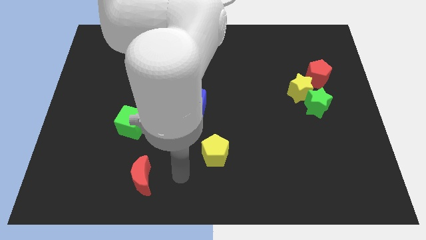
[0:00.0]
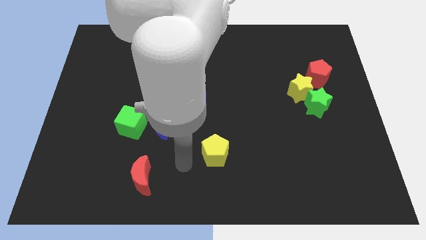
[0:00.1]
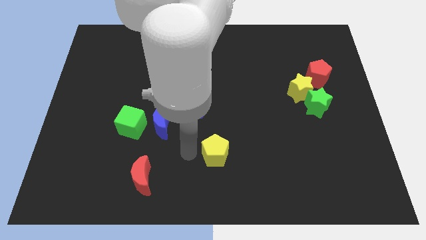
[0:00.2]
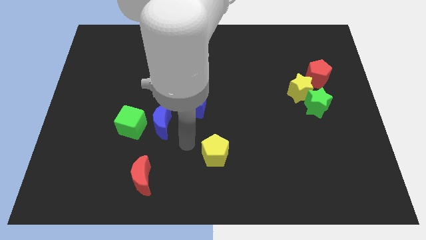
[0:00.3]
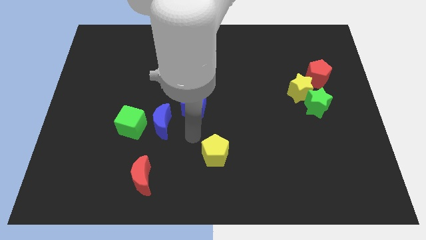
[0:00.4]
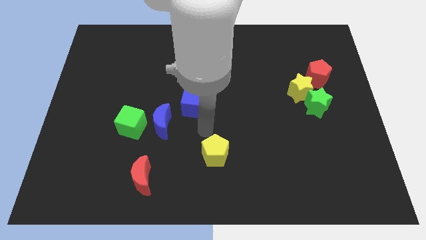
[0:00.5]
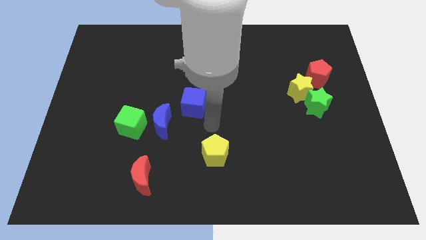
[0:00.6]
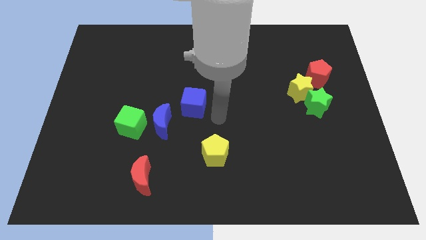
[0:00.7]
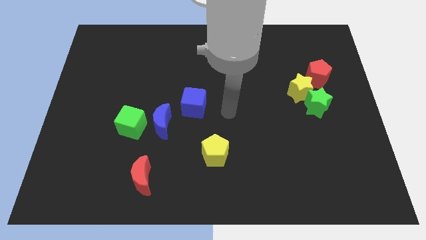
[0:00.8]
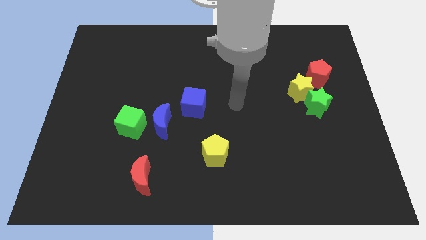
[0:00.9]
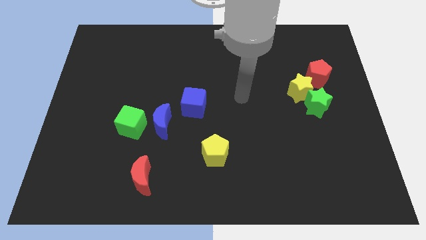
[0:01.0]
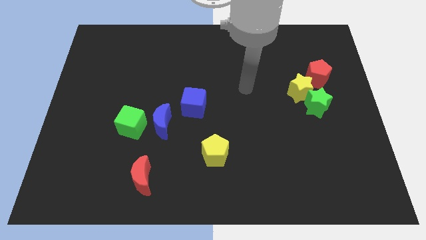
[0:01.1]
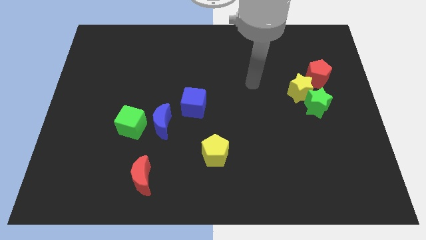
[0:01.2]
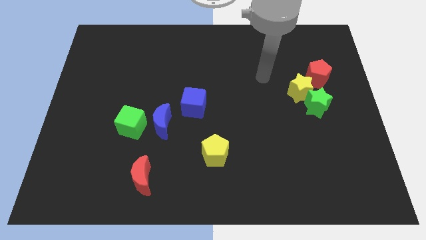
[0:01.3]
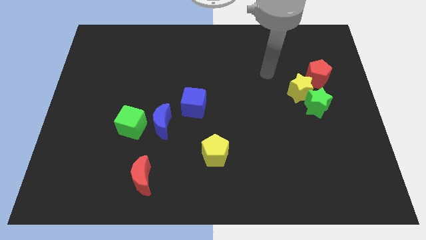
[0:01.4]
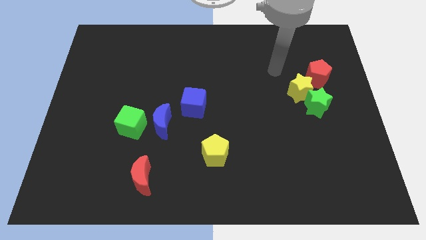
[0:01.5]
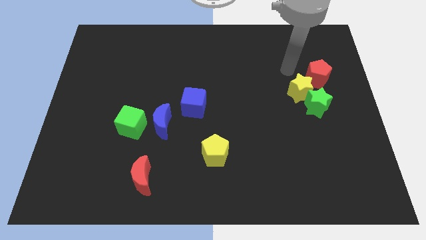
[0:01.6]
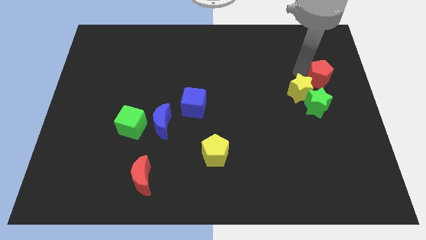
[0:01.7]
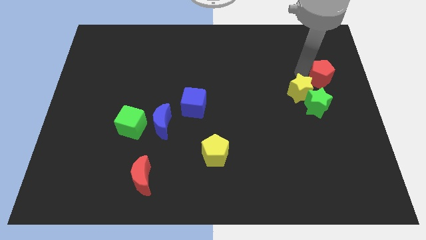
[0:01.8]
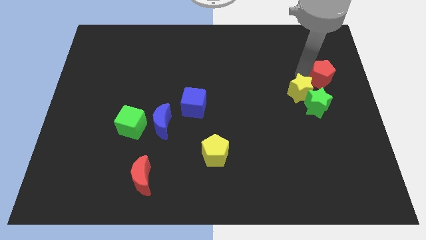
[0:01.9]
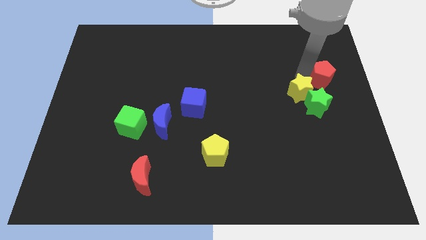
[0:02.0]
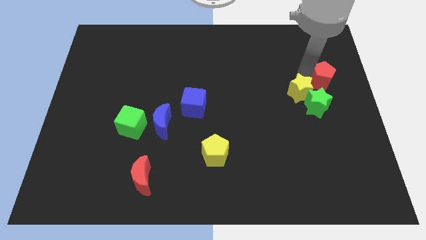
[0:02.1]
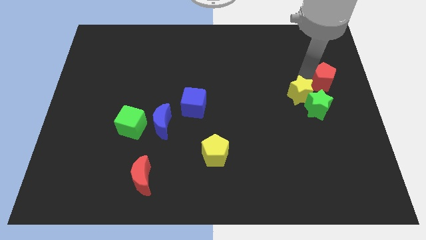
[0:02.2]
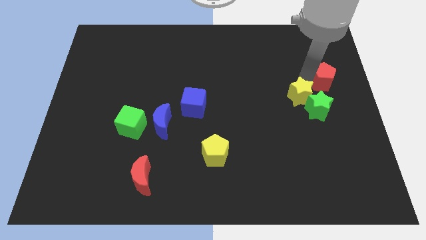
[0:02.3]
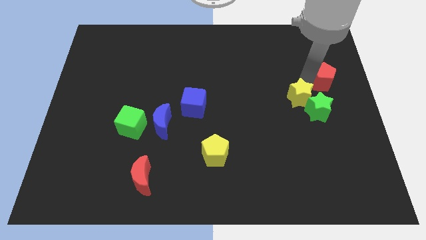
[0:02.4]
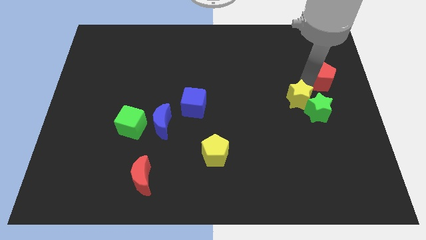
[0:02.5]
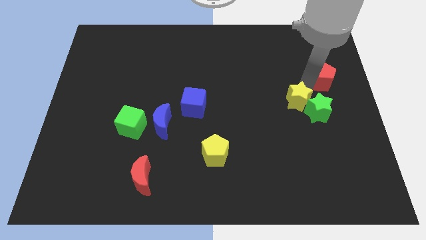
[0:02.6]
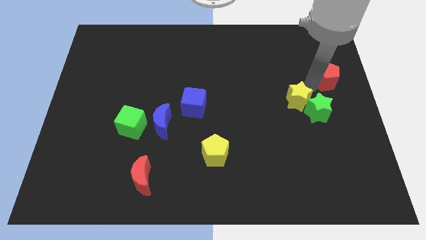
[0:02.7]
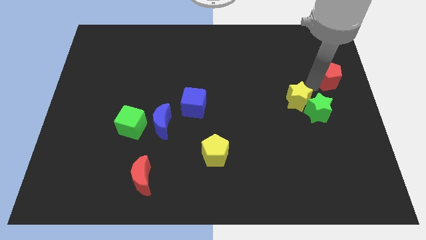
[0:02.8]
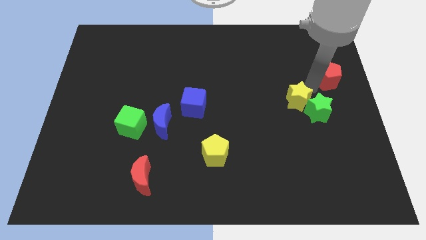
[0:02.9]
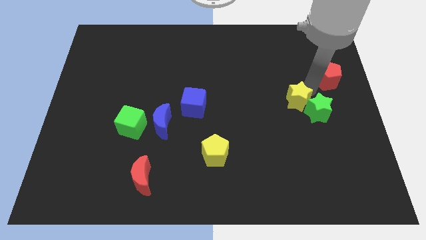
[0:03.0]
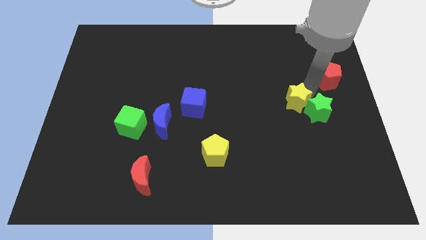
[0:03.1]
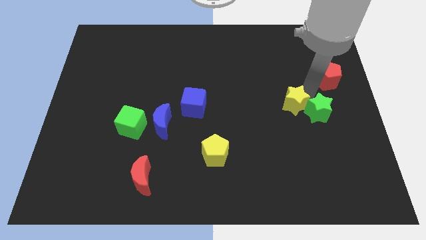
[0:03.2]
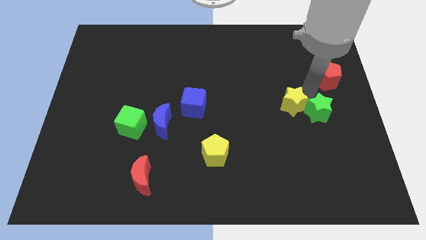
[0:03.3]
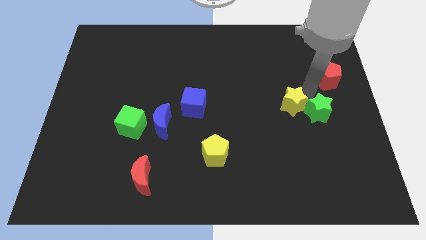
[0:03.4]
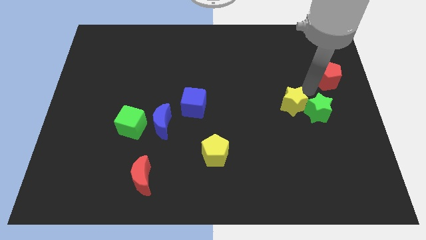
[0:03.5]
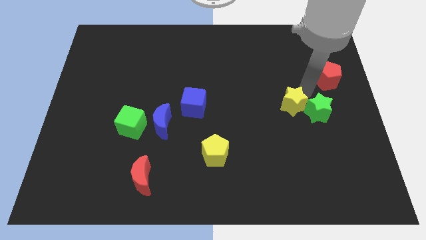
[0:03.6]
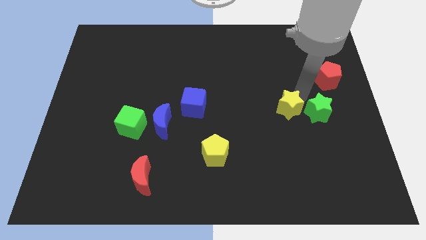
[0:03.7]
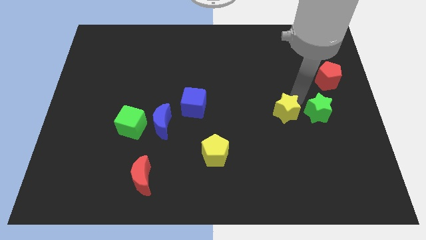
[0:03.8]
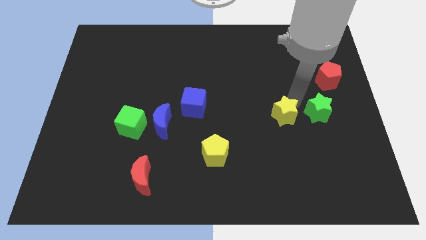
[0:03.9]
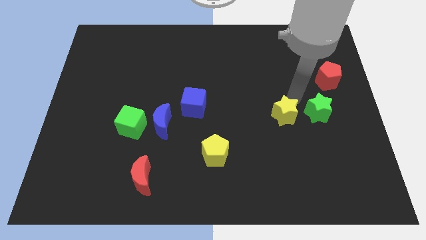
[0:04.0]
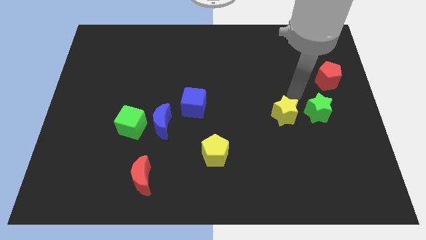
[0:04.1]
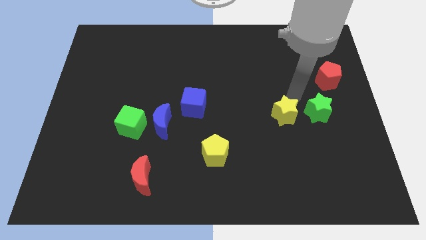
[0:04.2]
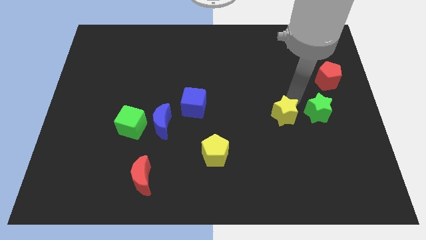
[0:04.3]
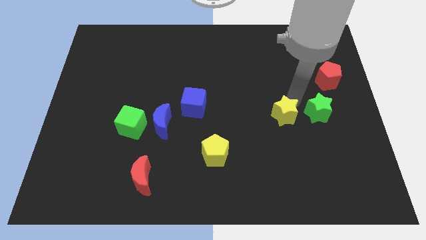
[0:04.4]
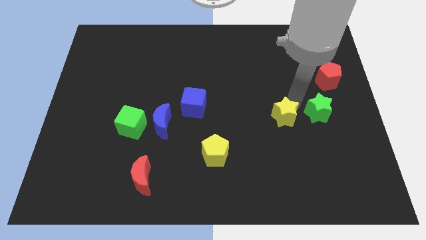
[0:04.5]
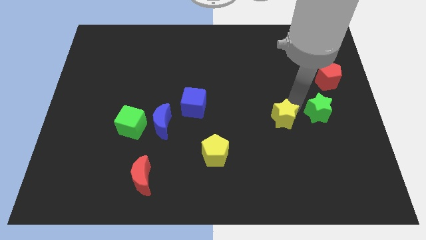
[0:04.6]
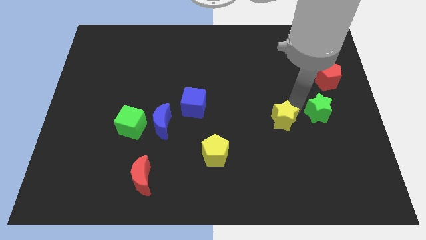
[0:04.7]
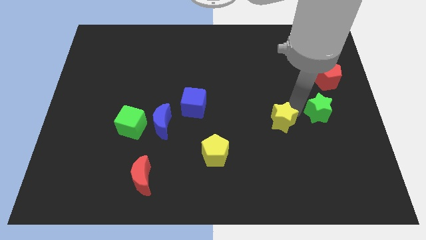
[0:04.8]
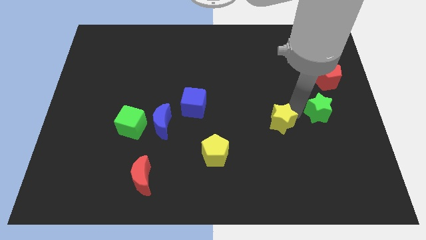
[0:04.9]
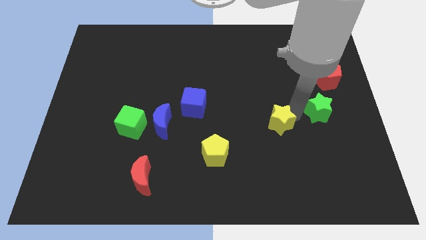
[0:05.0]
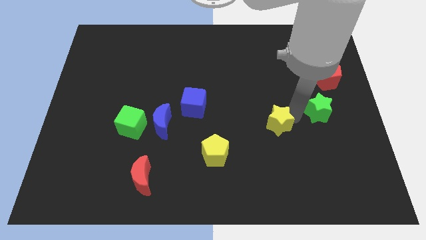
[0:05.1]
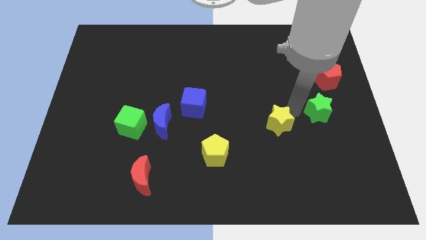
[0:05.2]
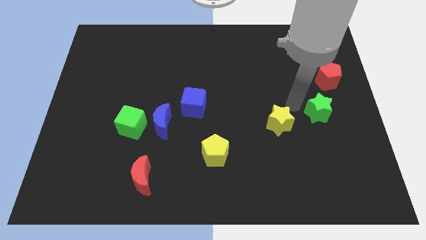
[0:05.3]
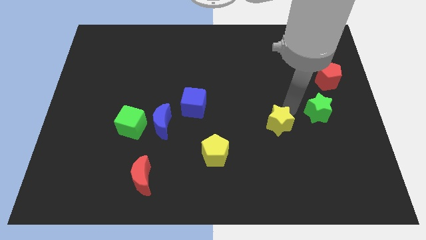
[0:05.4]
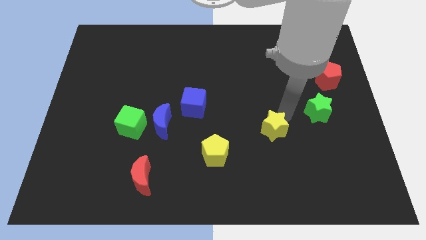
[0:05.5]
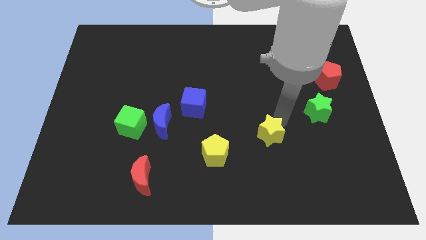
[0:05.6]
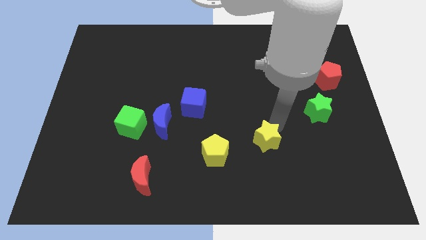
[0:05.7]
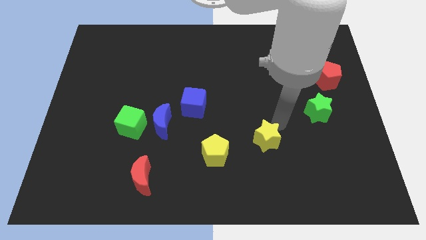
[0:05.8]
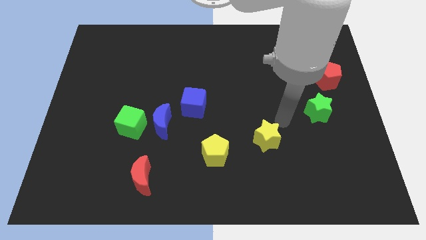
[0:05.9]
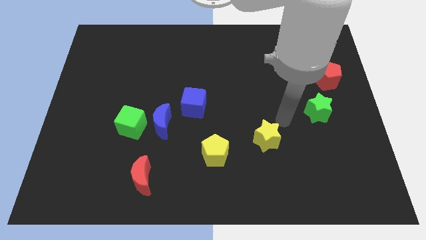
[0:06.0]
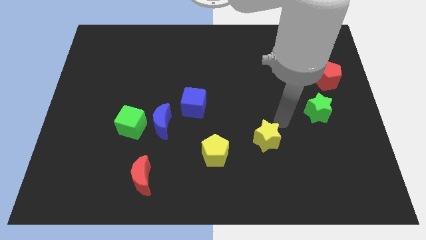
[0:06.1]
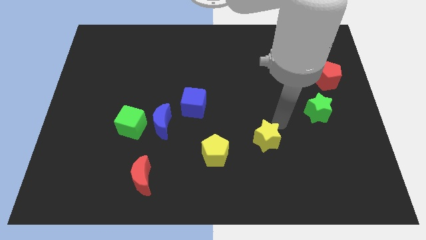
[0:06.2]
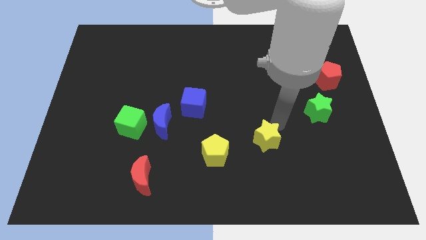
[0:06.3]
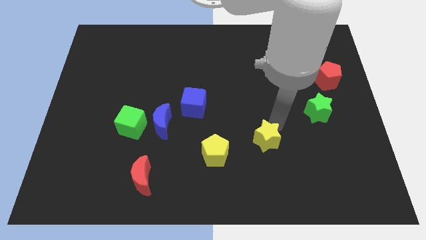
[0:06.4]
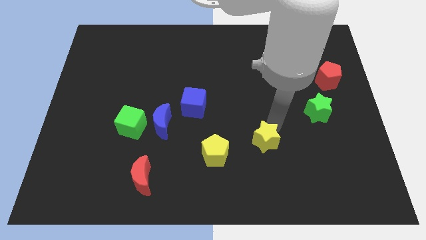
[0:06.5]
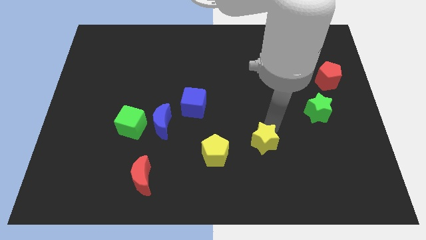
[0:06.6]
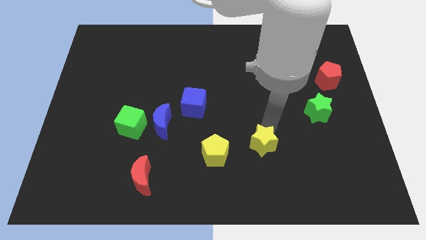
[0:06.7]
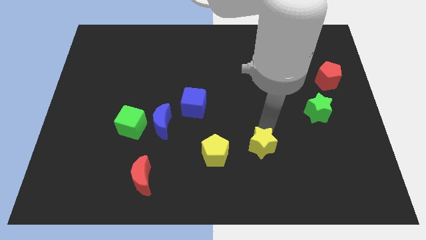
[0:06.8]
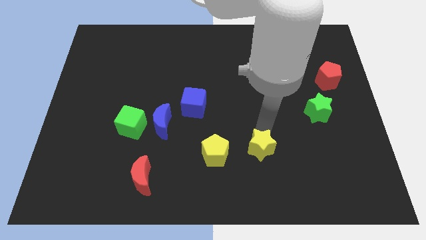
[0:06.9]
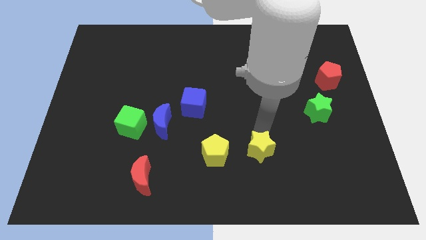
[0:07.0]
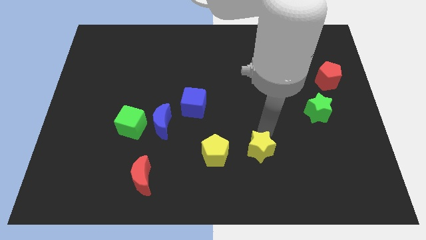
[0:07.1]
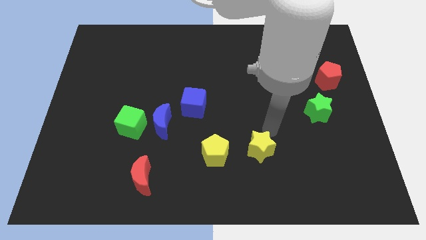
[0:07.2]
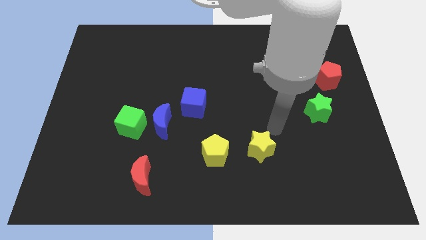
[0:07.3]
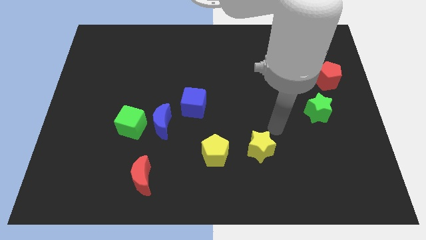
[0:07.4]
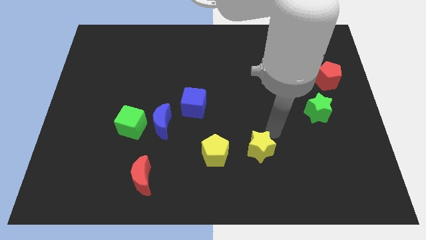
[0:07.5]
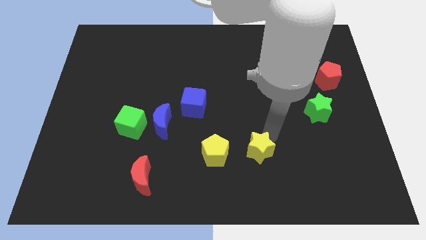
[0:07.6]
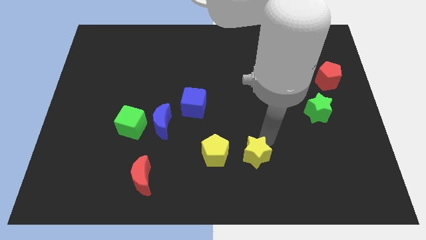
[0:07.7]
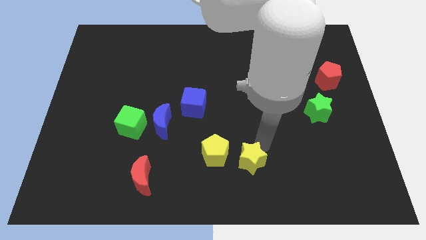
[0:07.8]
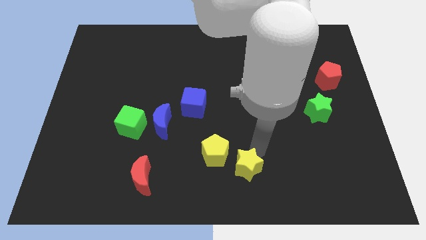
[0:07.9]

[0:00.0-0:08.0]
put the yellow star to the bottom
